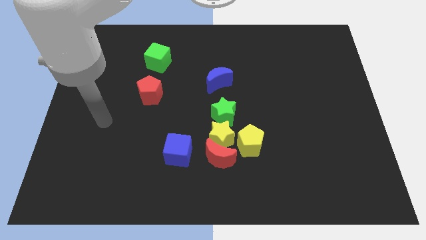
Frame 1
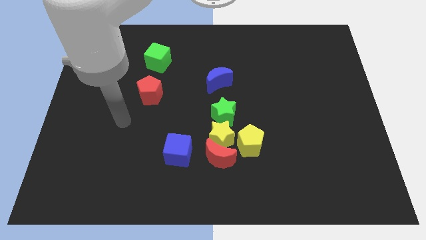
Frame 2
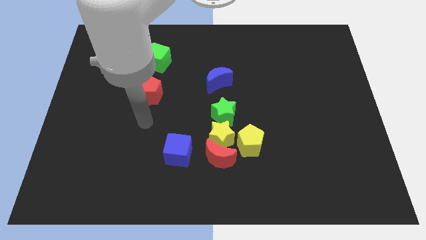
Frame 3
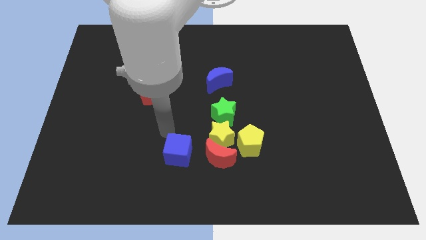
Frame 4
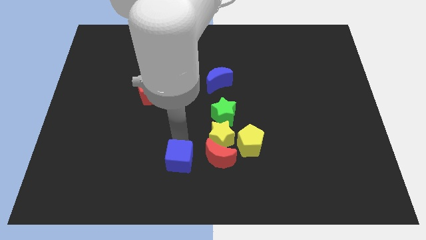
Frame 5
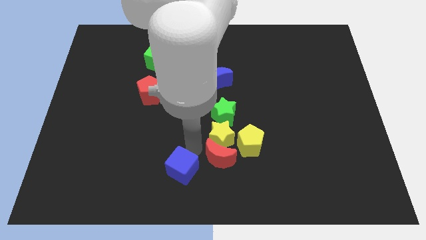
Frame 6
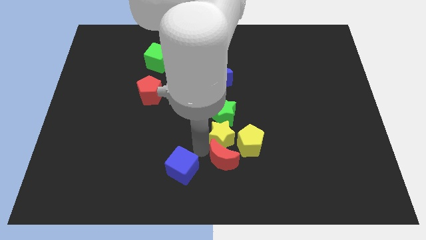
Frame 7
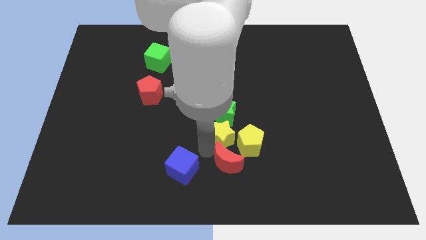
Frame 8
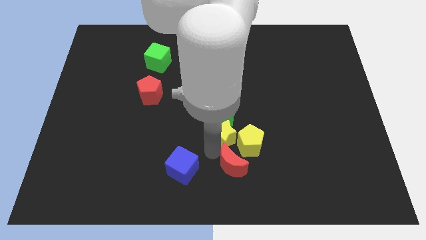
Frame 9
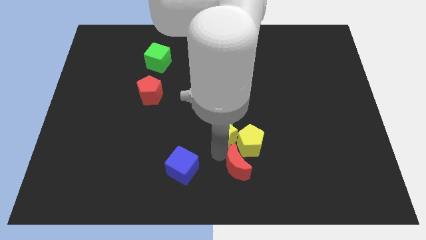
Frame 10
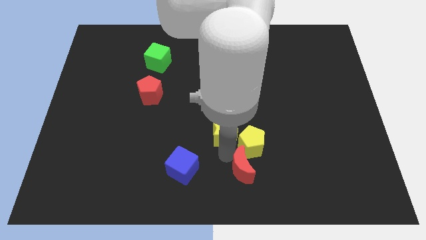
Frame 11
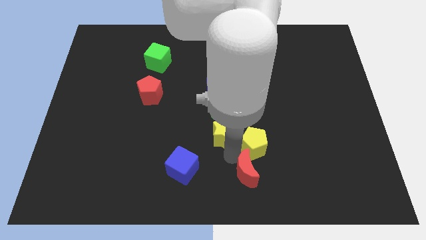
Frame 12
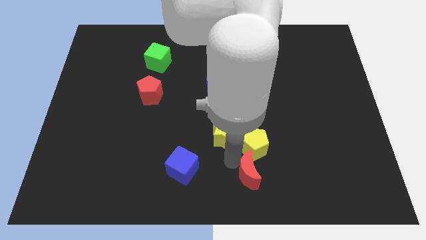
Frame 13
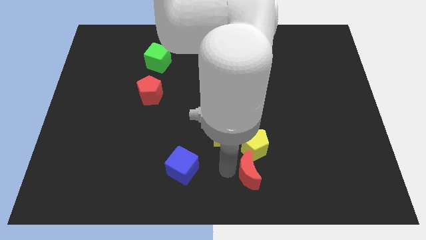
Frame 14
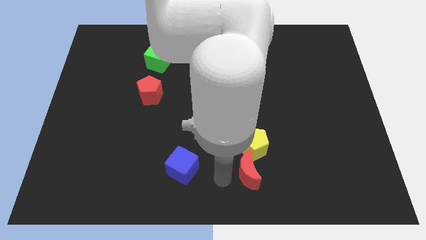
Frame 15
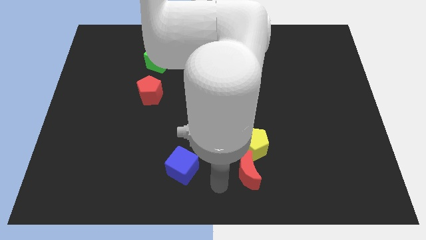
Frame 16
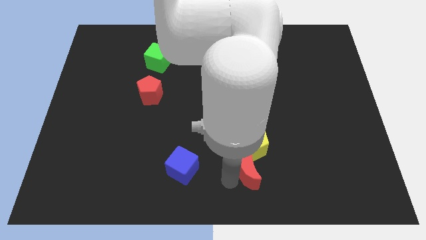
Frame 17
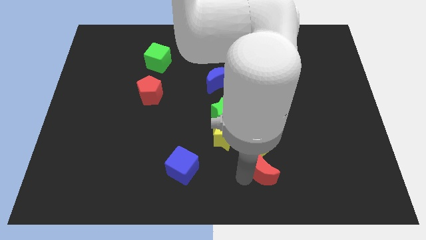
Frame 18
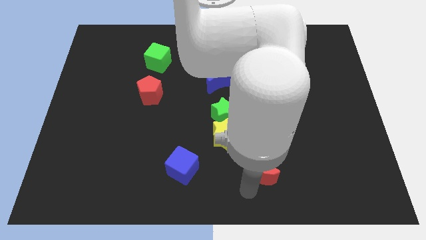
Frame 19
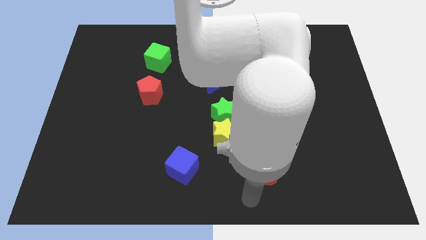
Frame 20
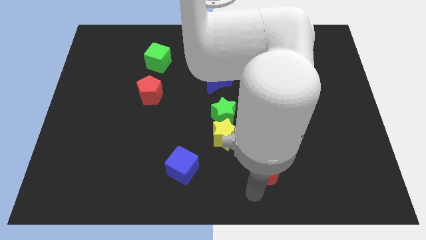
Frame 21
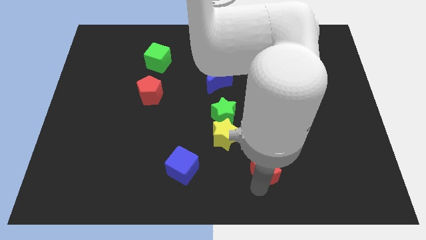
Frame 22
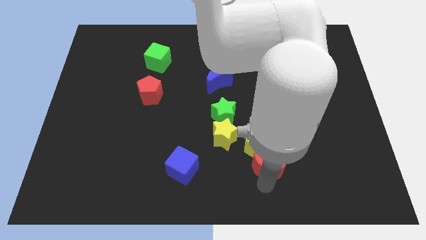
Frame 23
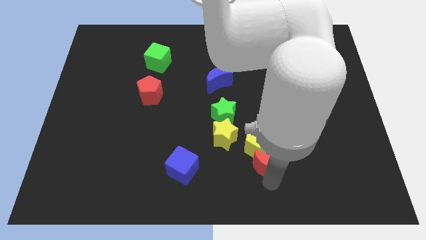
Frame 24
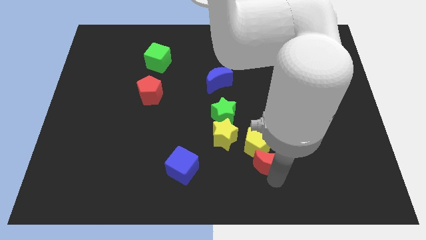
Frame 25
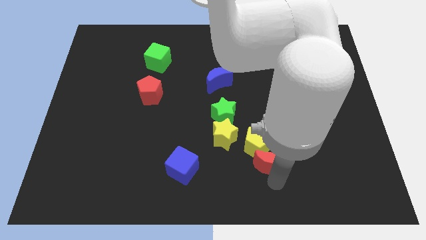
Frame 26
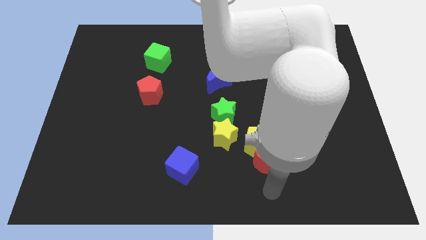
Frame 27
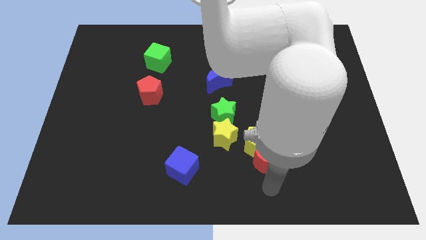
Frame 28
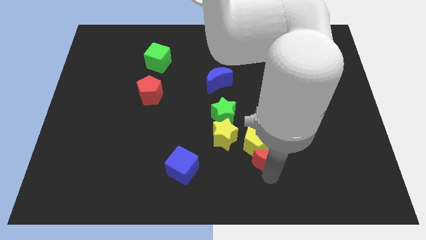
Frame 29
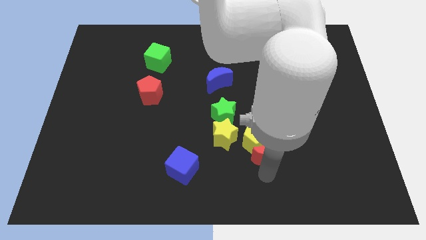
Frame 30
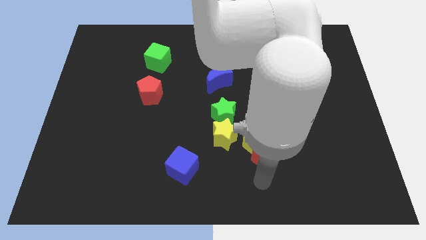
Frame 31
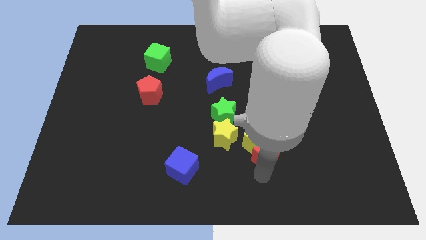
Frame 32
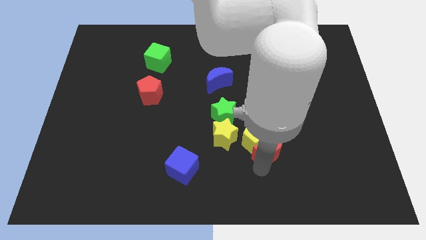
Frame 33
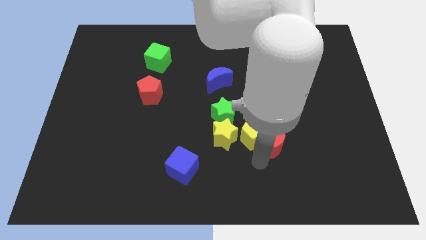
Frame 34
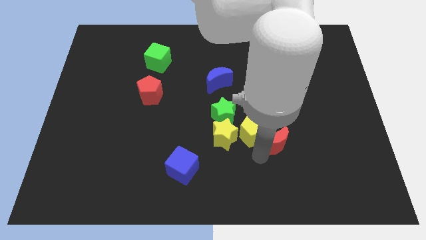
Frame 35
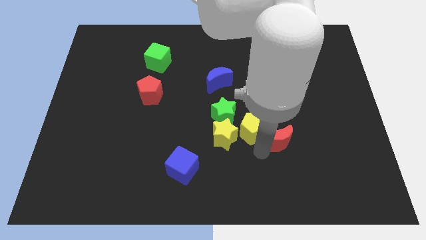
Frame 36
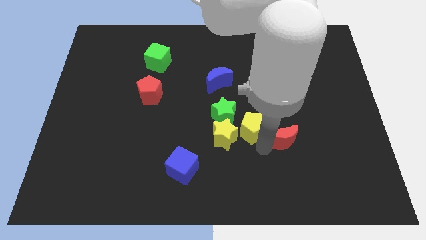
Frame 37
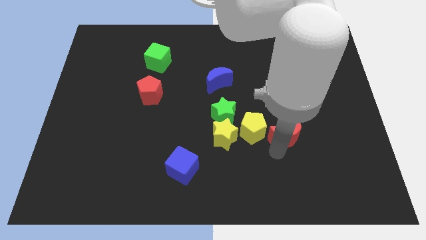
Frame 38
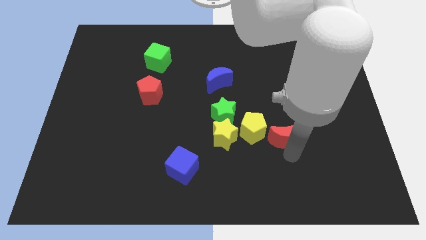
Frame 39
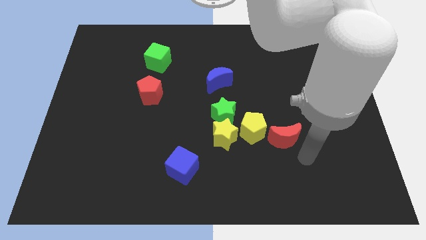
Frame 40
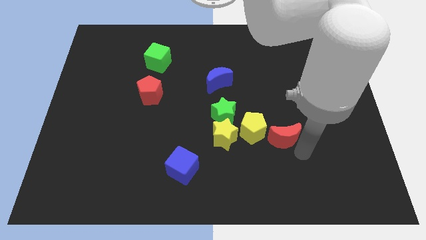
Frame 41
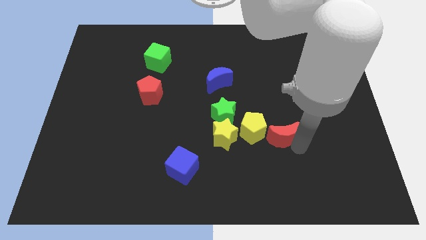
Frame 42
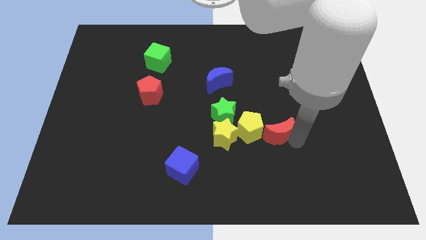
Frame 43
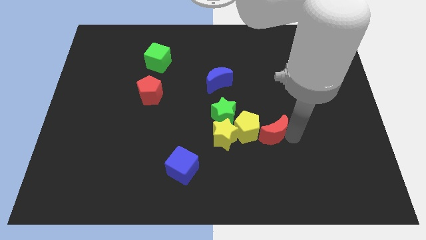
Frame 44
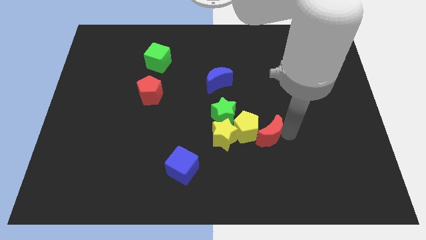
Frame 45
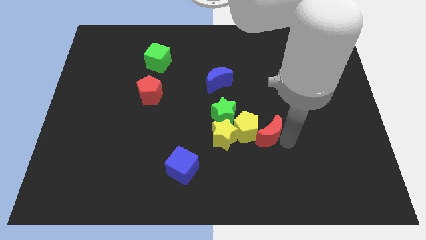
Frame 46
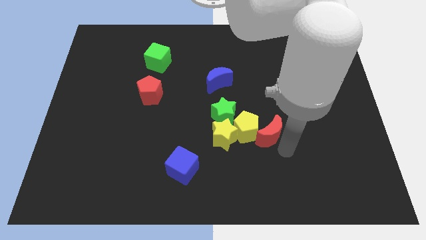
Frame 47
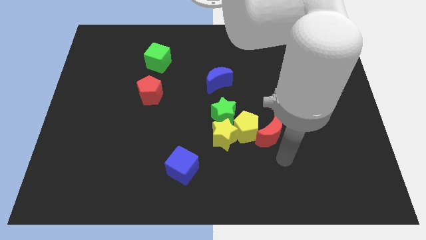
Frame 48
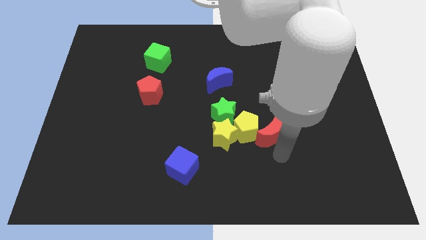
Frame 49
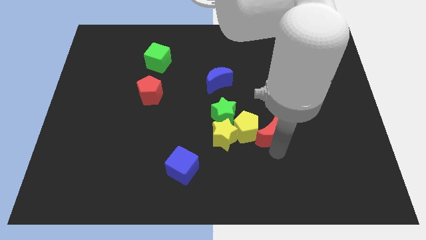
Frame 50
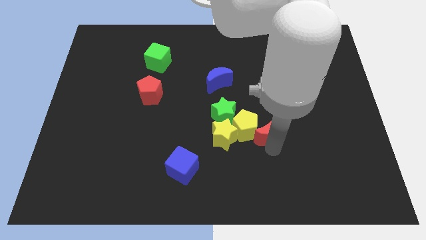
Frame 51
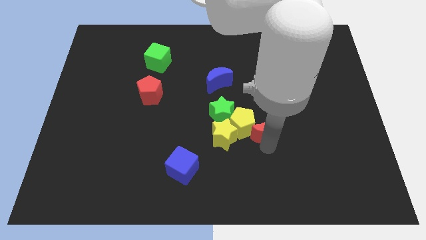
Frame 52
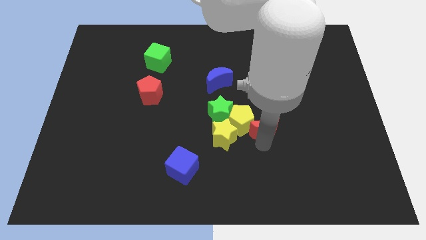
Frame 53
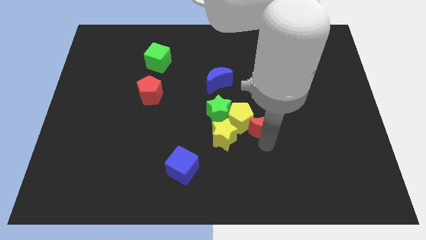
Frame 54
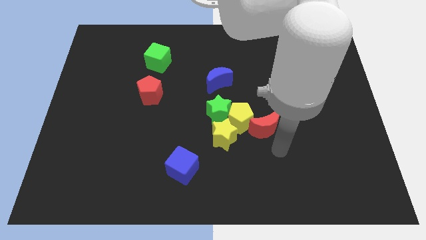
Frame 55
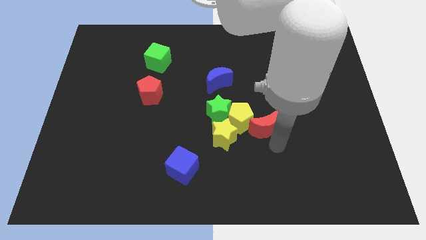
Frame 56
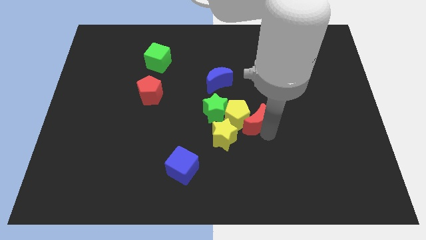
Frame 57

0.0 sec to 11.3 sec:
put the red moon to the center of the board
